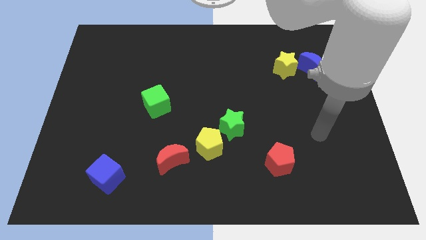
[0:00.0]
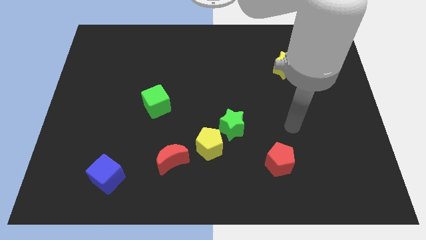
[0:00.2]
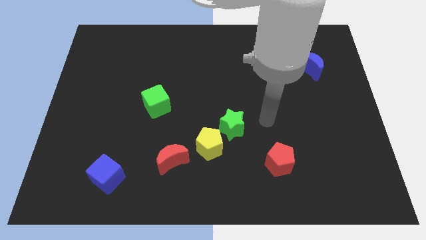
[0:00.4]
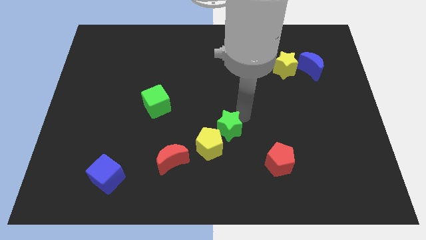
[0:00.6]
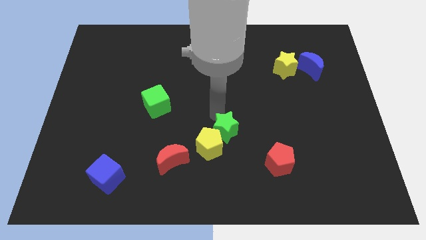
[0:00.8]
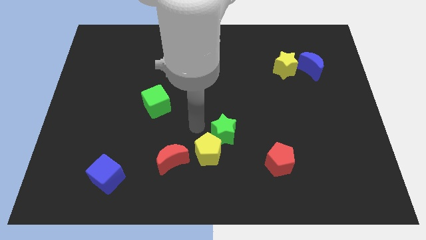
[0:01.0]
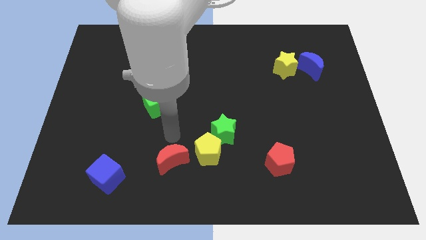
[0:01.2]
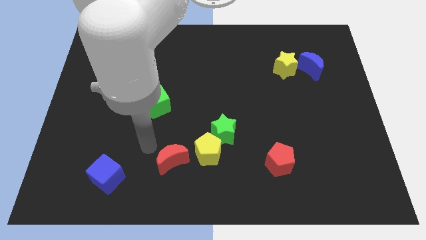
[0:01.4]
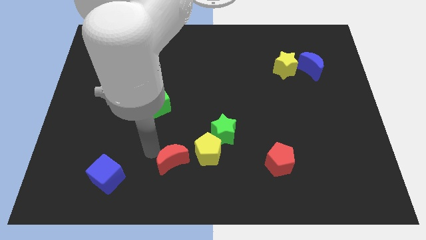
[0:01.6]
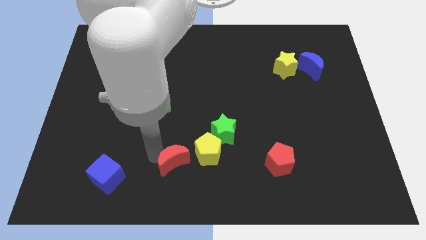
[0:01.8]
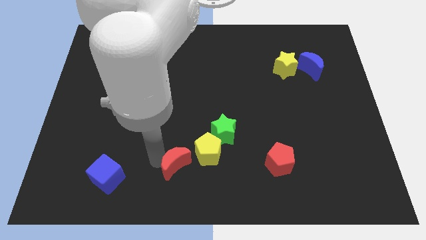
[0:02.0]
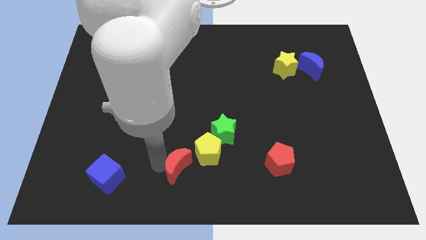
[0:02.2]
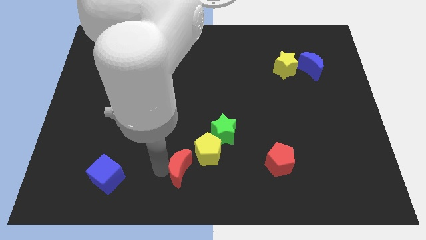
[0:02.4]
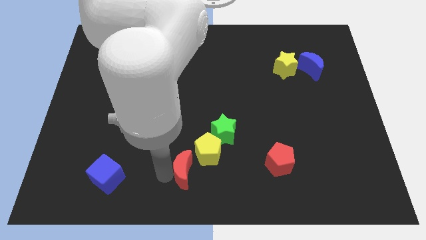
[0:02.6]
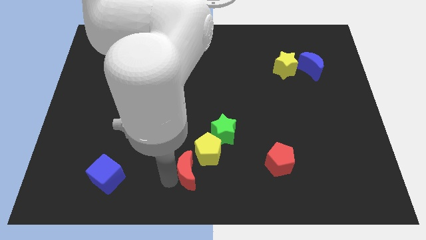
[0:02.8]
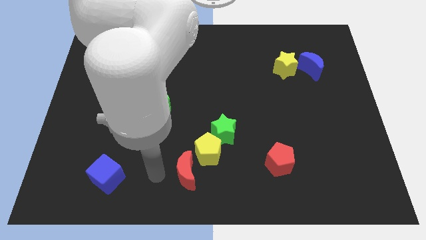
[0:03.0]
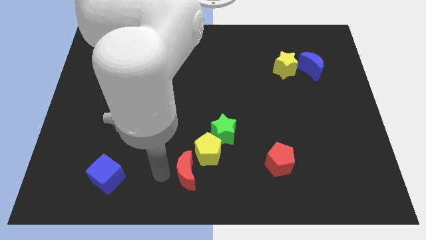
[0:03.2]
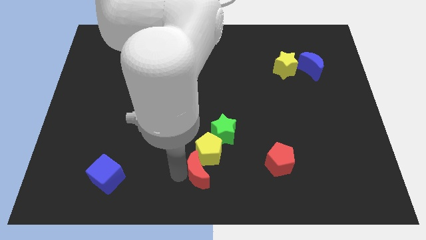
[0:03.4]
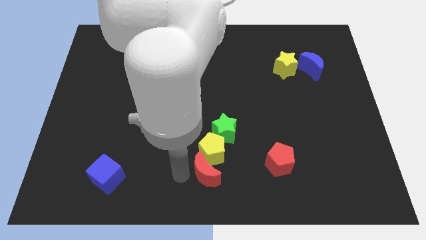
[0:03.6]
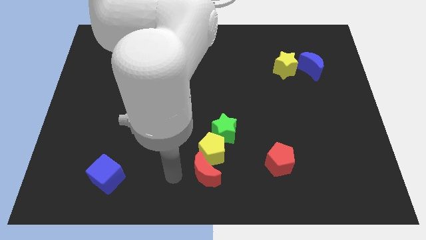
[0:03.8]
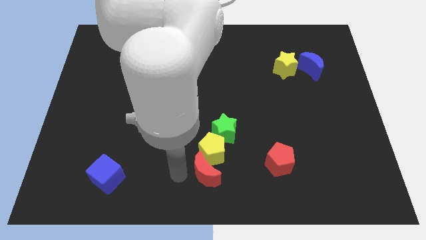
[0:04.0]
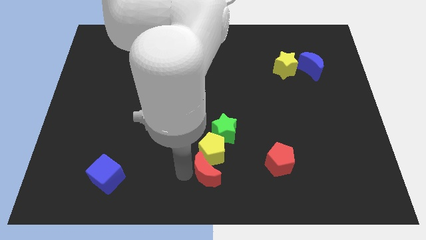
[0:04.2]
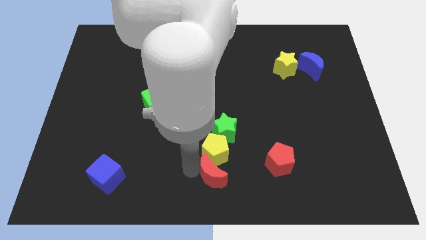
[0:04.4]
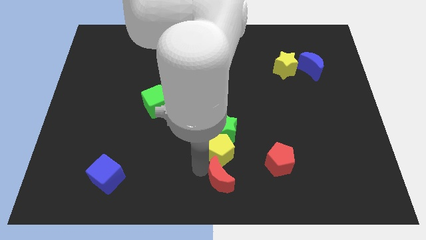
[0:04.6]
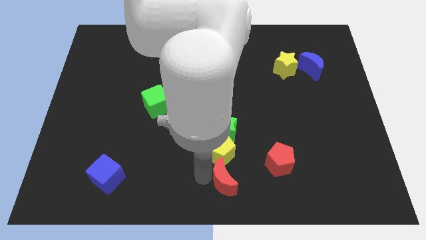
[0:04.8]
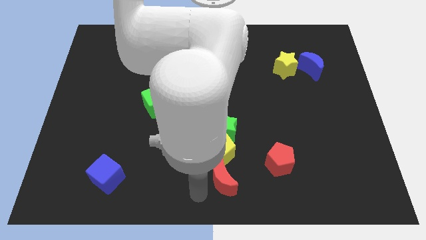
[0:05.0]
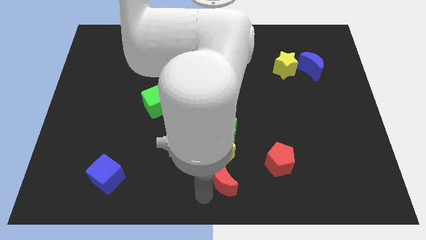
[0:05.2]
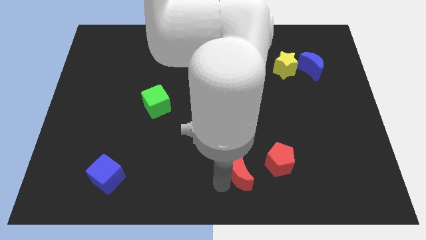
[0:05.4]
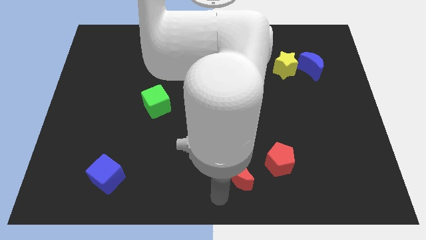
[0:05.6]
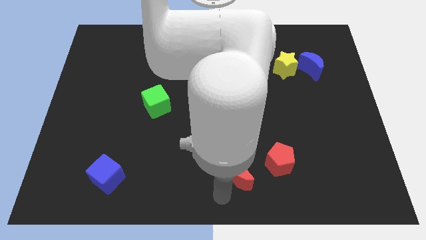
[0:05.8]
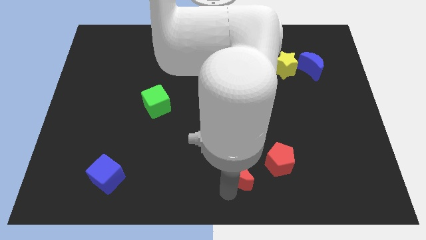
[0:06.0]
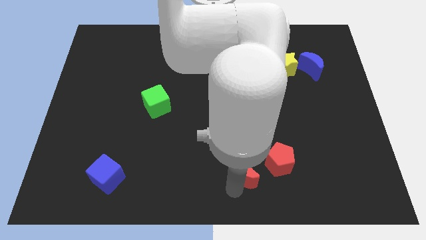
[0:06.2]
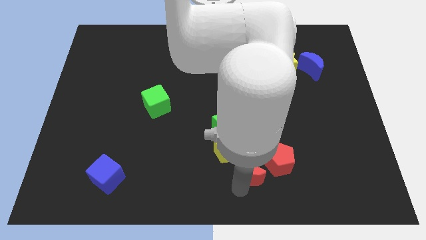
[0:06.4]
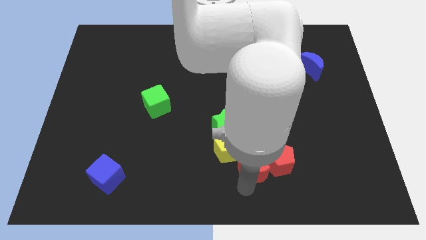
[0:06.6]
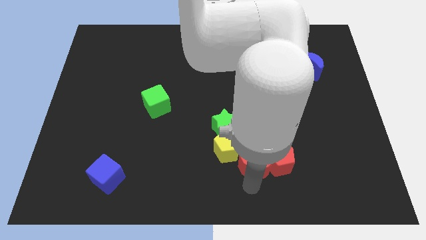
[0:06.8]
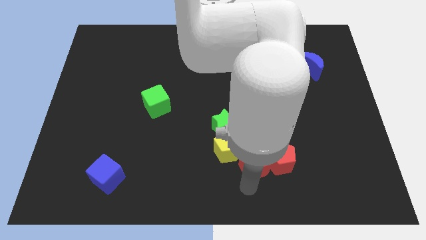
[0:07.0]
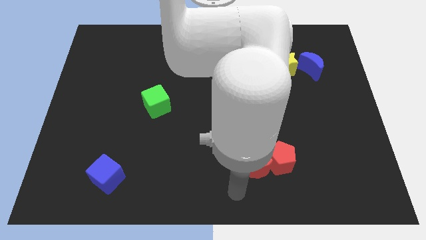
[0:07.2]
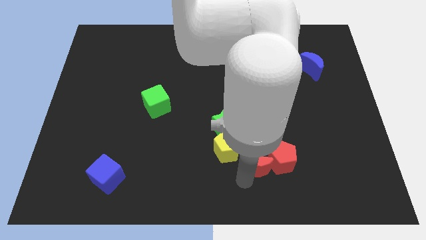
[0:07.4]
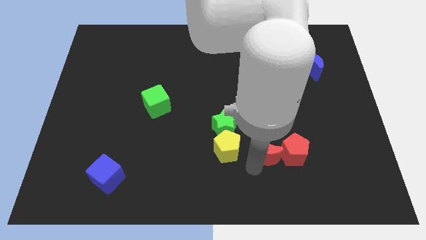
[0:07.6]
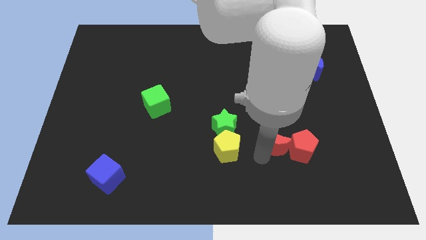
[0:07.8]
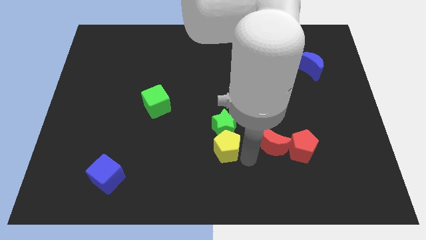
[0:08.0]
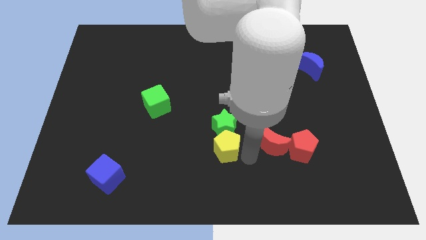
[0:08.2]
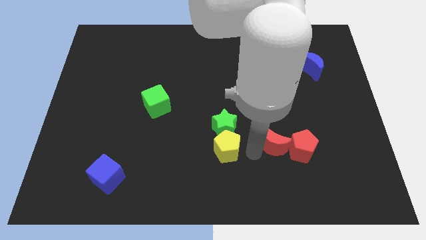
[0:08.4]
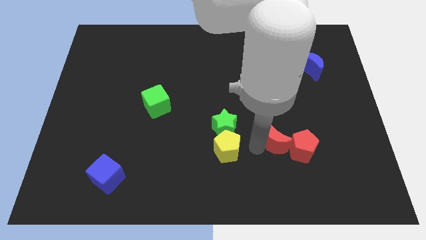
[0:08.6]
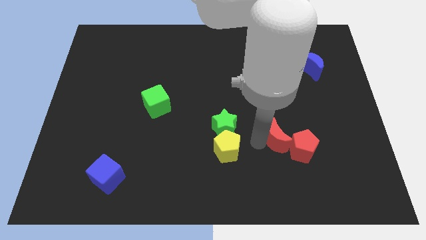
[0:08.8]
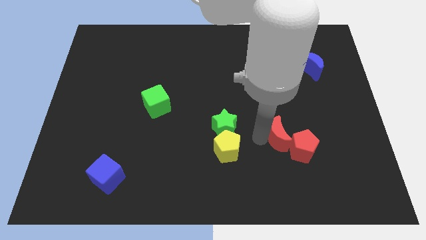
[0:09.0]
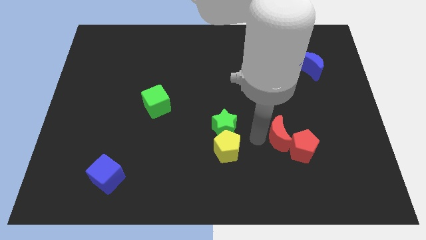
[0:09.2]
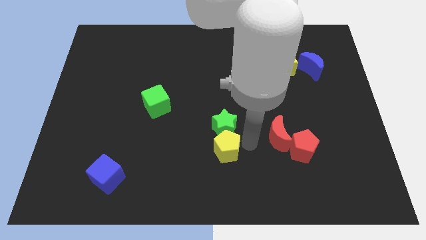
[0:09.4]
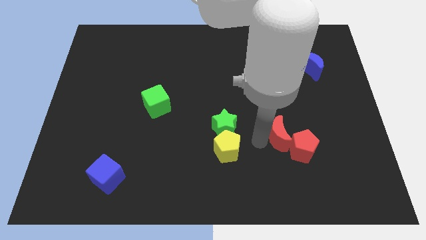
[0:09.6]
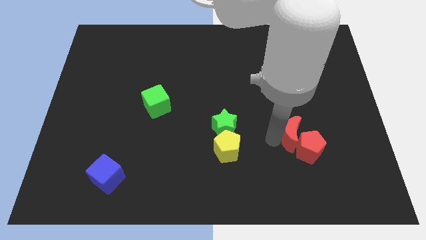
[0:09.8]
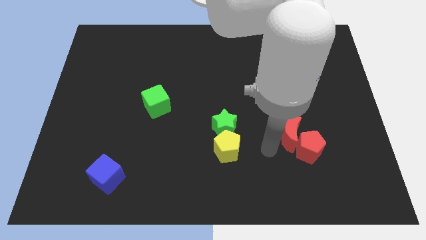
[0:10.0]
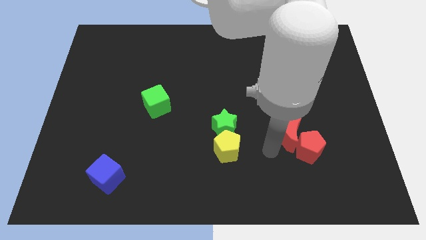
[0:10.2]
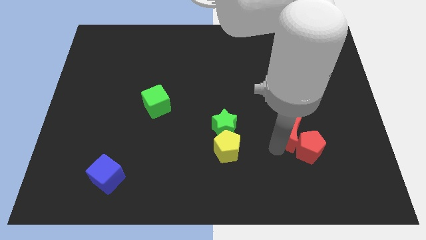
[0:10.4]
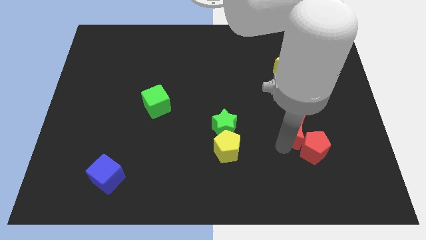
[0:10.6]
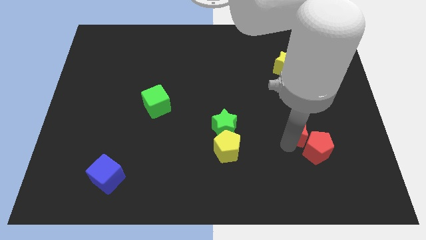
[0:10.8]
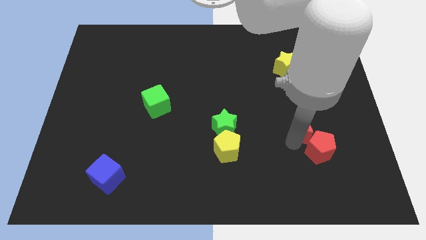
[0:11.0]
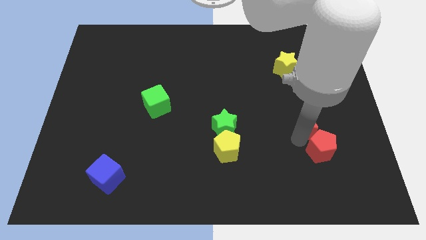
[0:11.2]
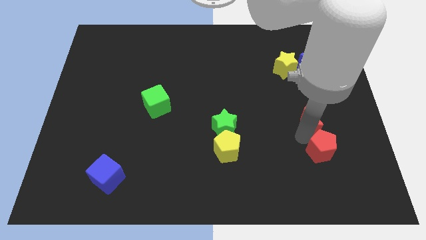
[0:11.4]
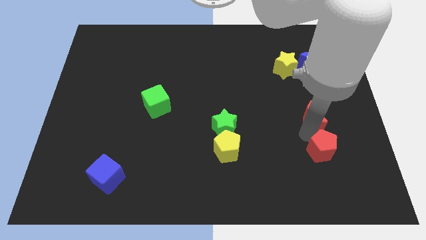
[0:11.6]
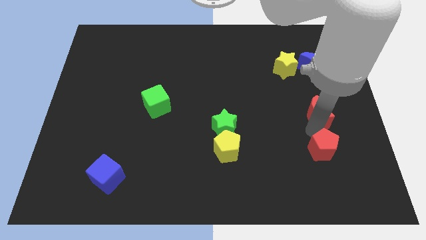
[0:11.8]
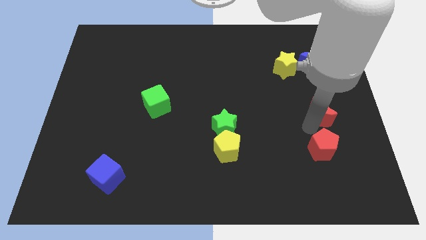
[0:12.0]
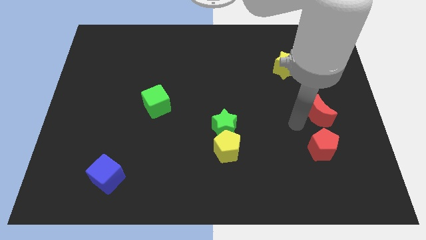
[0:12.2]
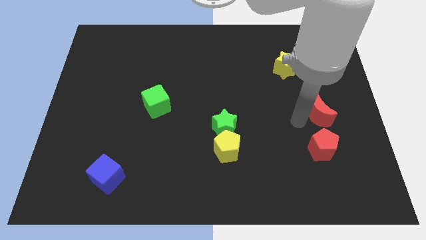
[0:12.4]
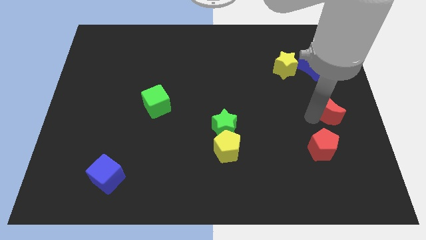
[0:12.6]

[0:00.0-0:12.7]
slide the red moon to the right side of the board

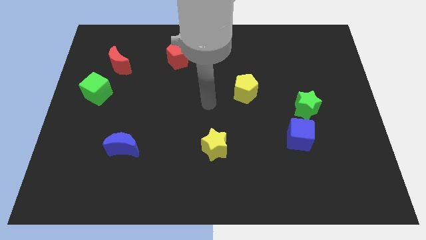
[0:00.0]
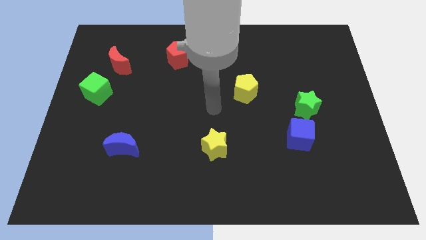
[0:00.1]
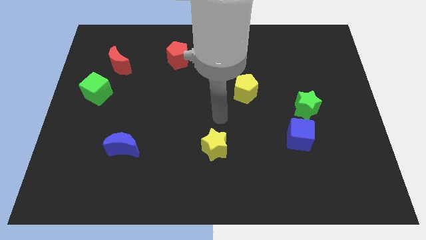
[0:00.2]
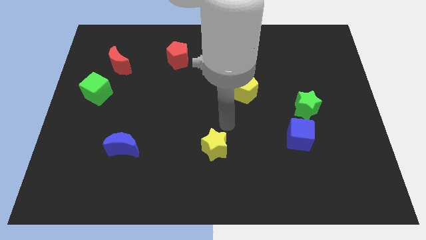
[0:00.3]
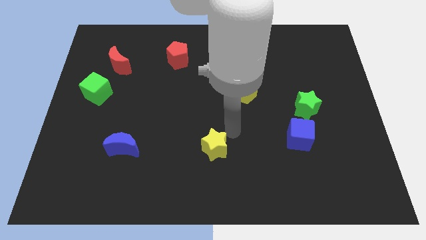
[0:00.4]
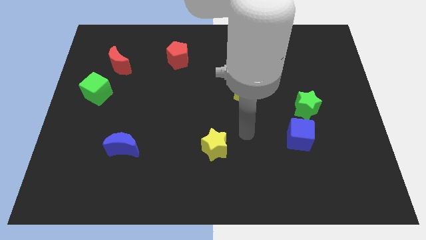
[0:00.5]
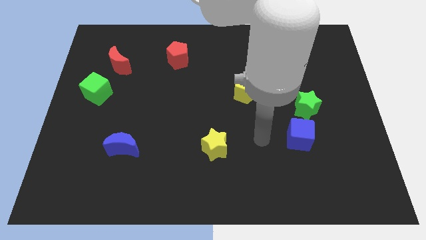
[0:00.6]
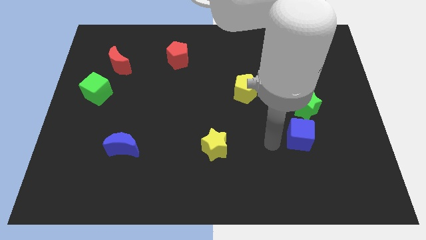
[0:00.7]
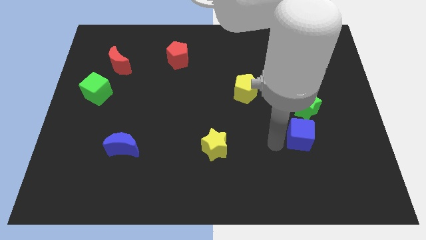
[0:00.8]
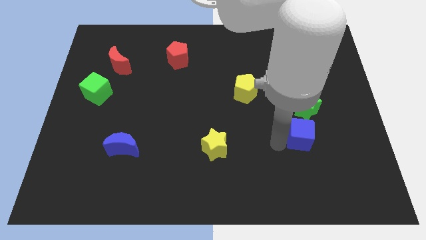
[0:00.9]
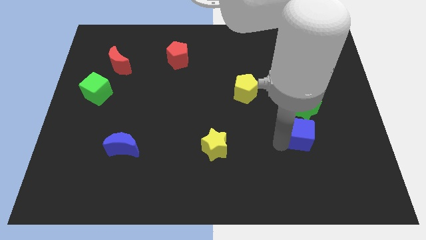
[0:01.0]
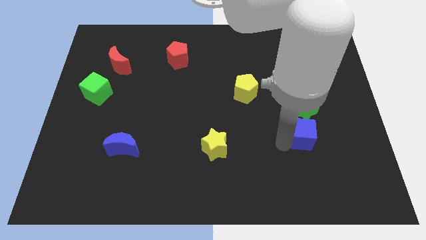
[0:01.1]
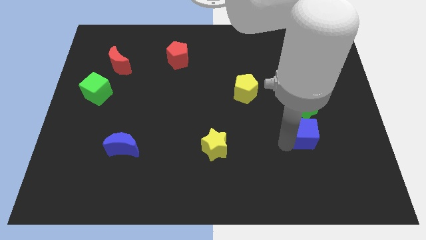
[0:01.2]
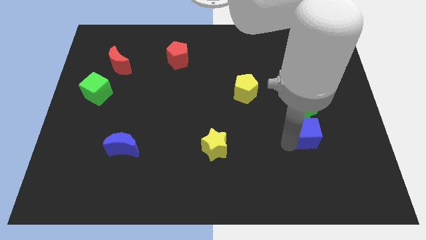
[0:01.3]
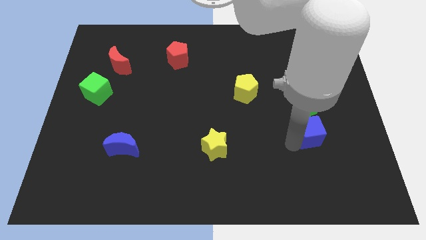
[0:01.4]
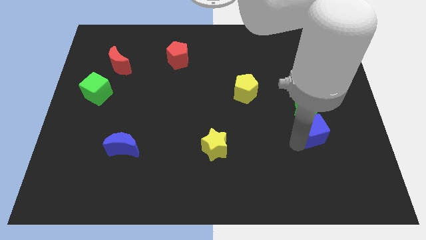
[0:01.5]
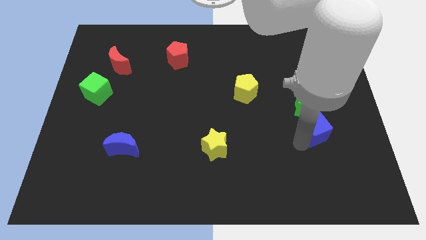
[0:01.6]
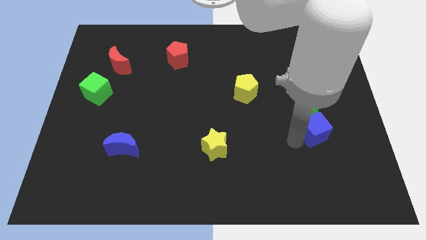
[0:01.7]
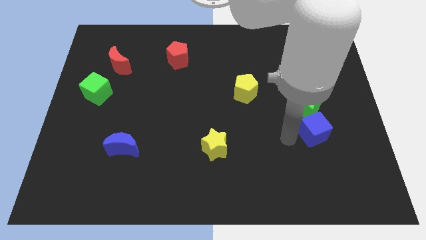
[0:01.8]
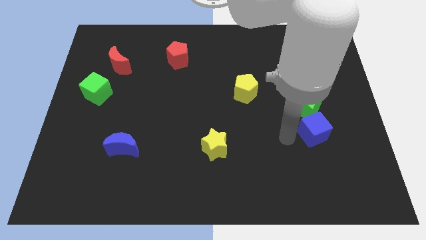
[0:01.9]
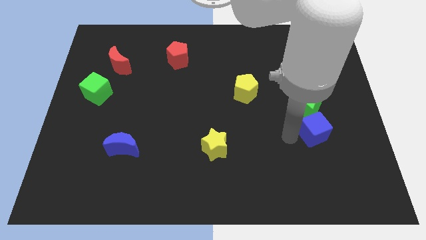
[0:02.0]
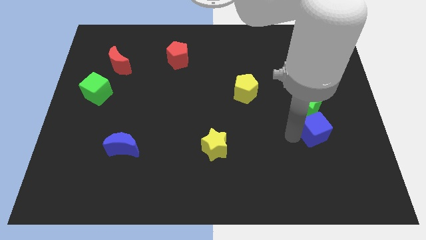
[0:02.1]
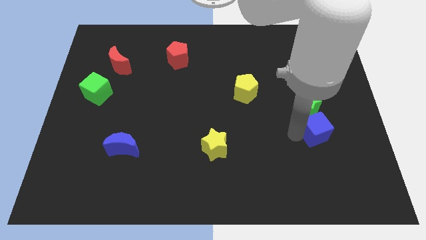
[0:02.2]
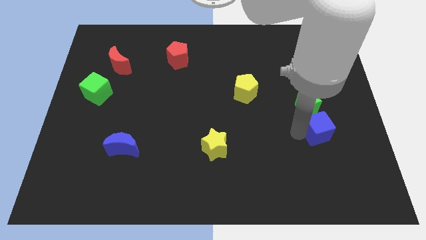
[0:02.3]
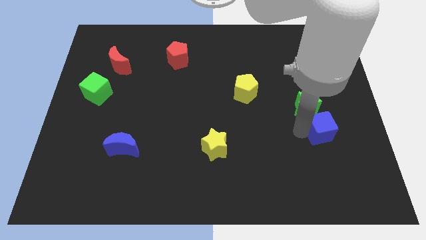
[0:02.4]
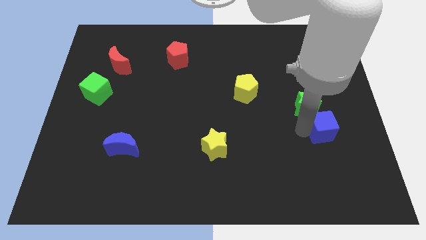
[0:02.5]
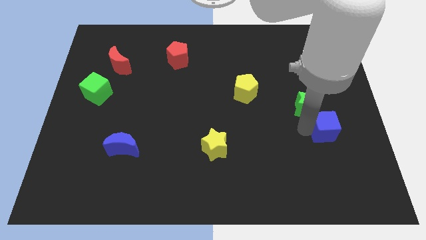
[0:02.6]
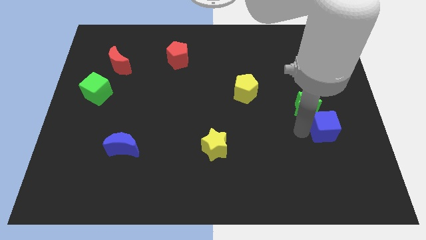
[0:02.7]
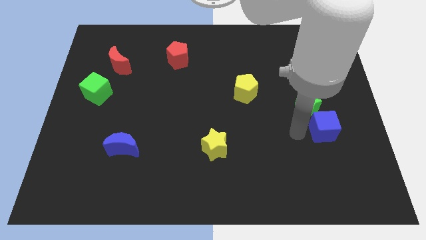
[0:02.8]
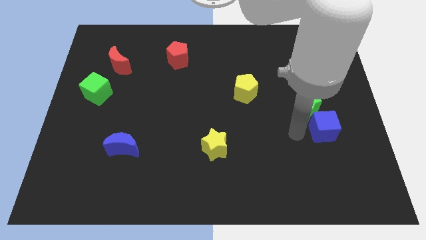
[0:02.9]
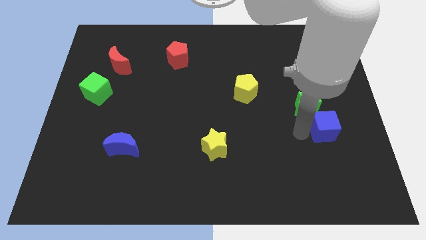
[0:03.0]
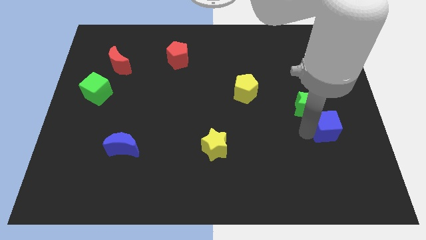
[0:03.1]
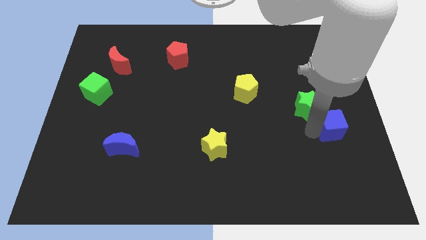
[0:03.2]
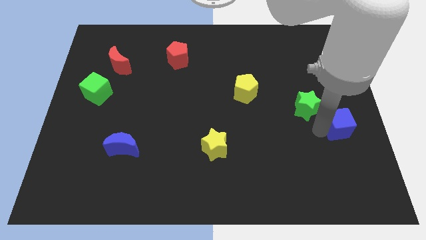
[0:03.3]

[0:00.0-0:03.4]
move the blue cube to the center right
